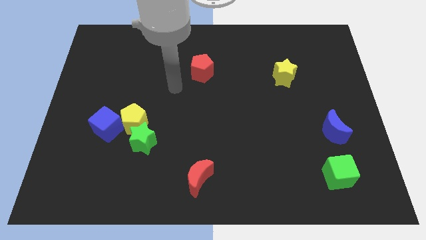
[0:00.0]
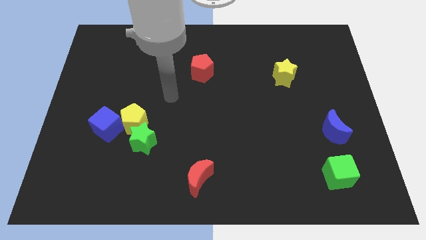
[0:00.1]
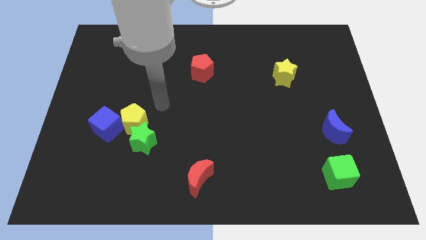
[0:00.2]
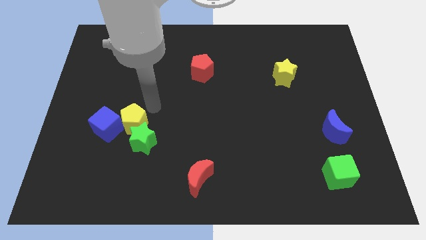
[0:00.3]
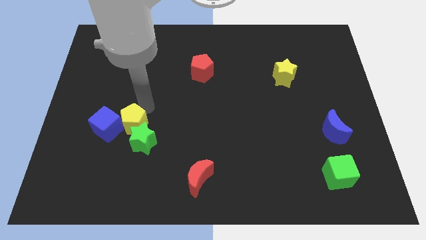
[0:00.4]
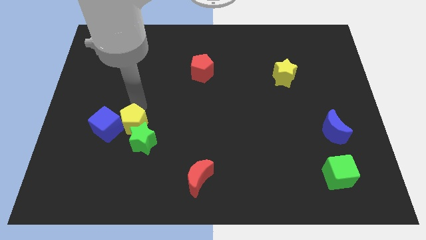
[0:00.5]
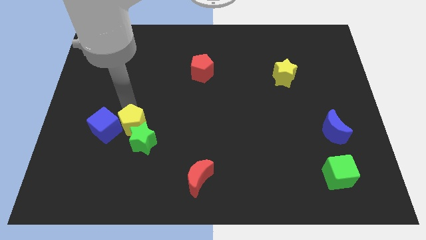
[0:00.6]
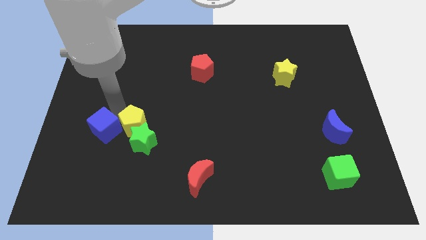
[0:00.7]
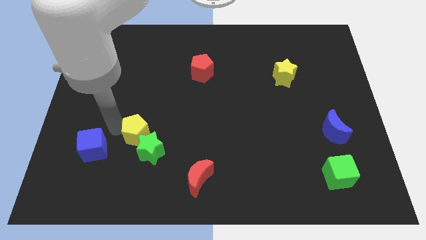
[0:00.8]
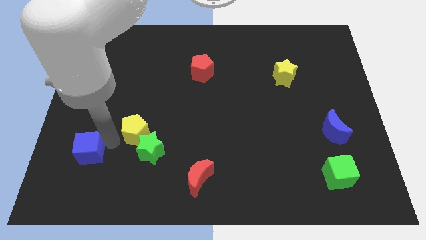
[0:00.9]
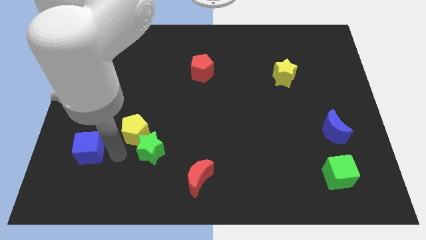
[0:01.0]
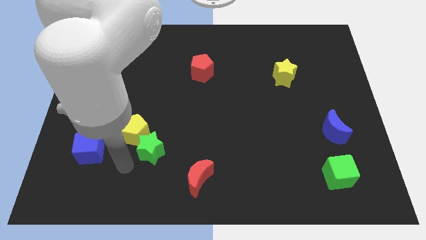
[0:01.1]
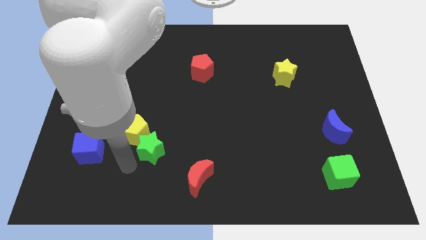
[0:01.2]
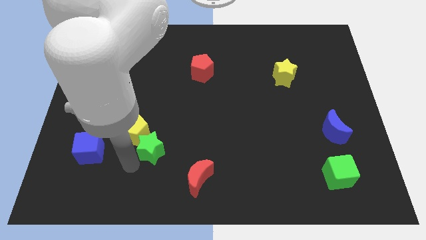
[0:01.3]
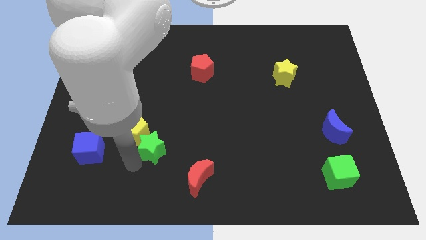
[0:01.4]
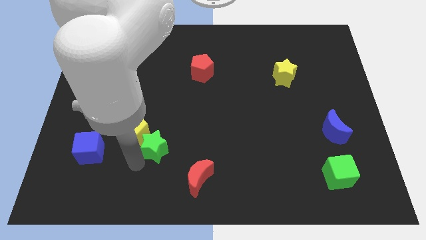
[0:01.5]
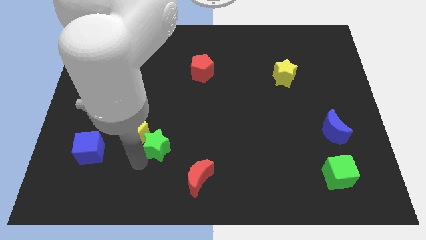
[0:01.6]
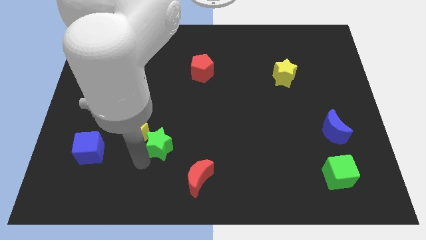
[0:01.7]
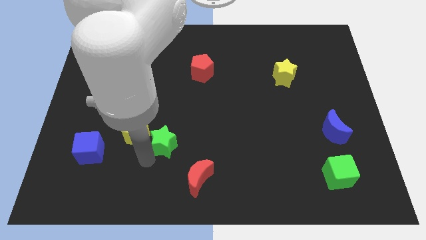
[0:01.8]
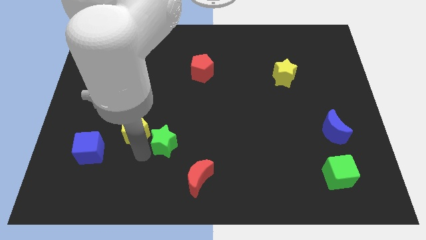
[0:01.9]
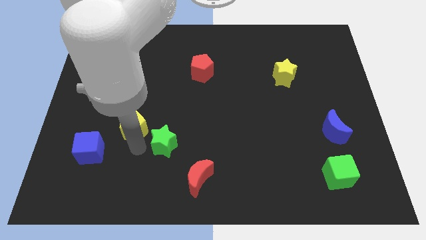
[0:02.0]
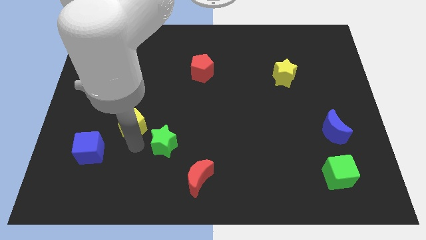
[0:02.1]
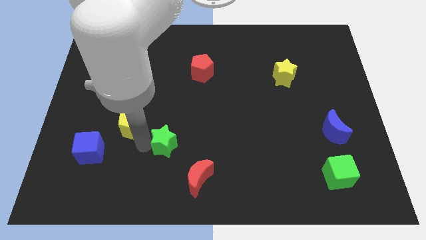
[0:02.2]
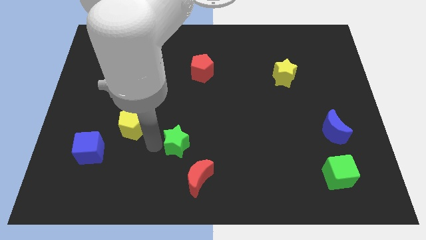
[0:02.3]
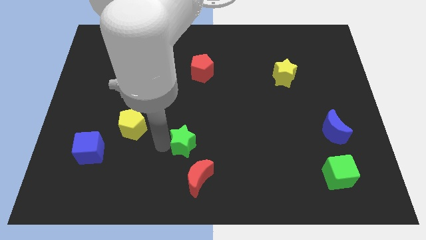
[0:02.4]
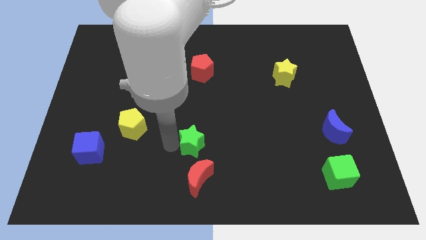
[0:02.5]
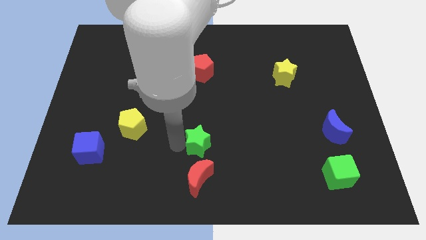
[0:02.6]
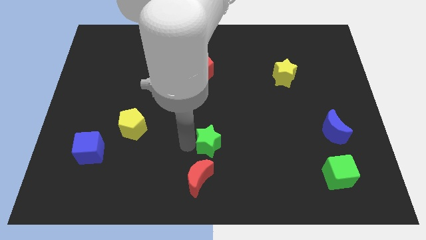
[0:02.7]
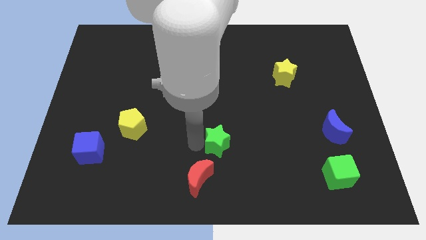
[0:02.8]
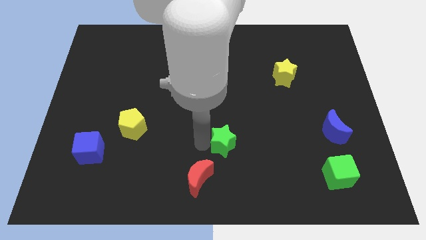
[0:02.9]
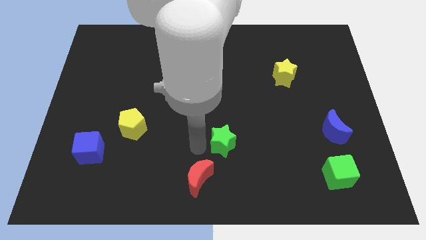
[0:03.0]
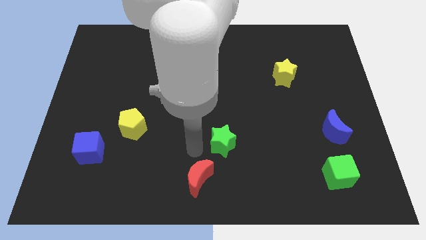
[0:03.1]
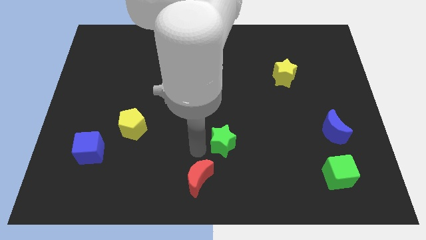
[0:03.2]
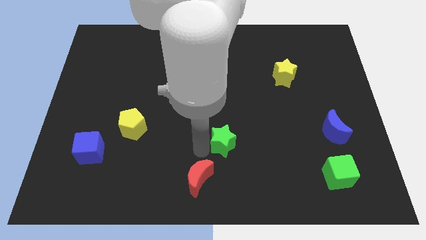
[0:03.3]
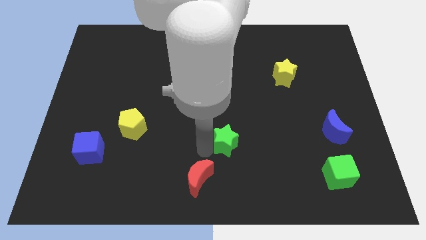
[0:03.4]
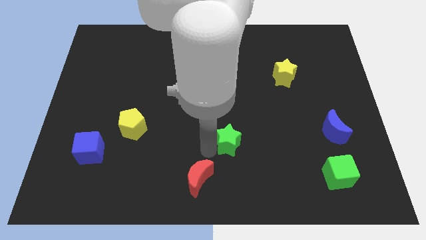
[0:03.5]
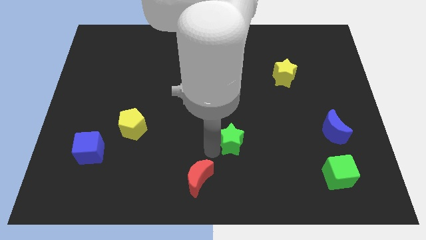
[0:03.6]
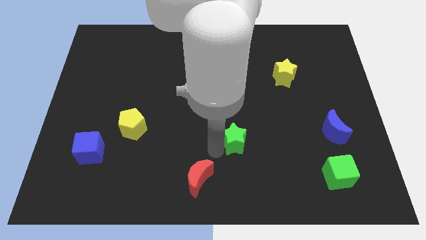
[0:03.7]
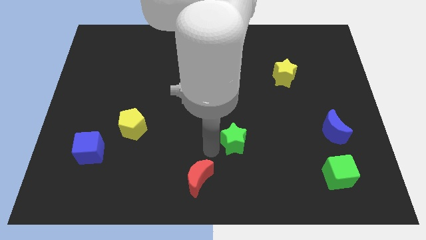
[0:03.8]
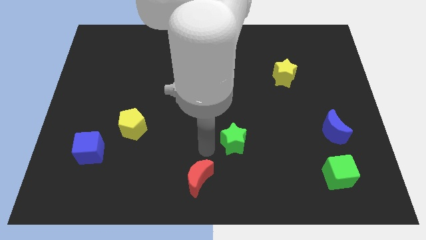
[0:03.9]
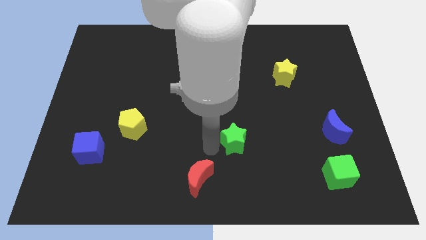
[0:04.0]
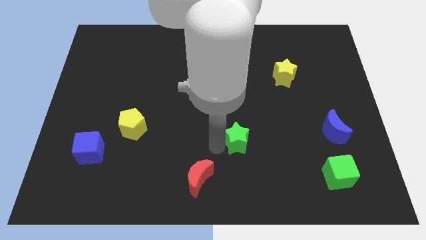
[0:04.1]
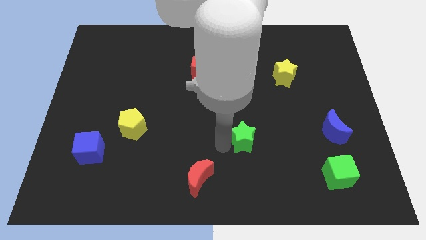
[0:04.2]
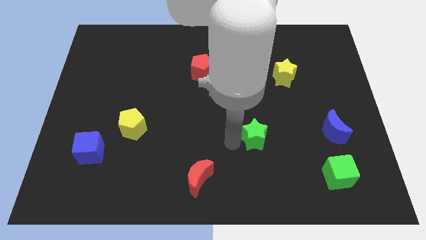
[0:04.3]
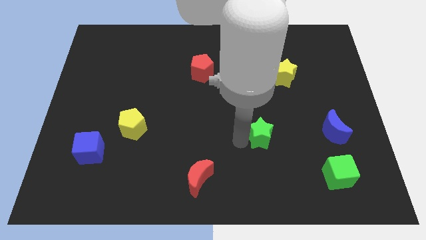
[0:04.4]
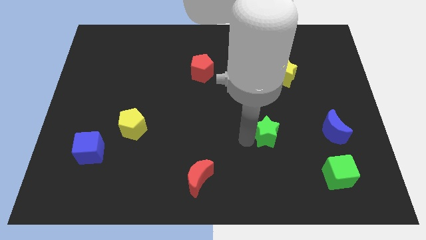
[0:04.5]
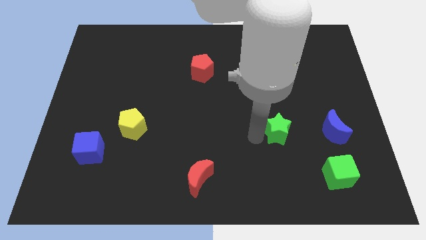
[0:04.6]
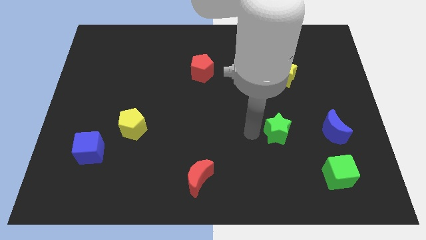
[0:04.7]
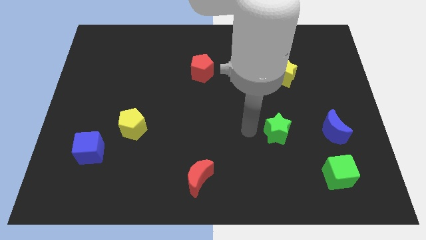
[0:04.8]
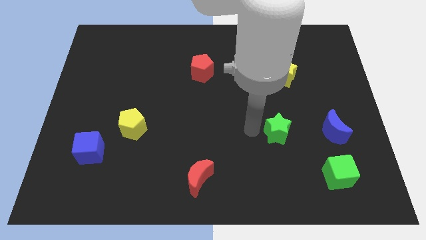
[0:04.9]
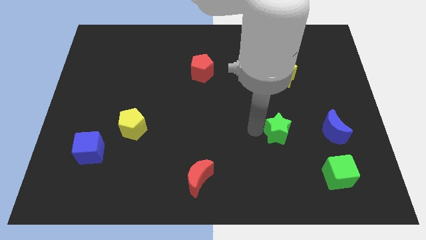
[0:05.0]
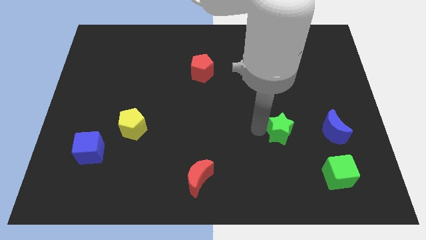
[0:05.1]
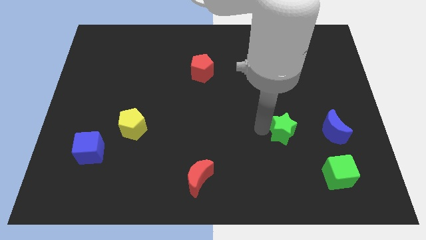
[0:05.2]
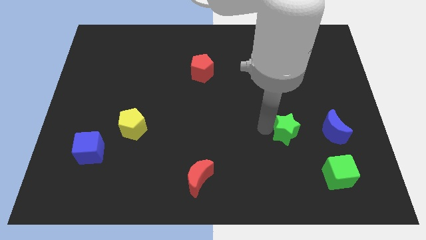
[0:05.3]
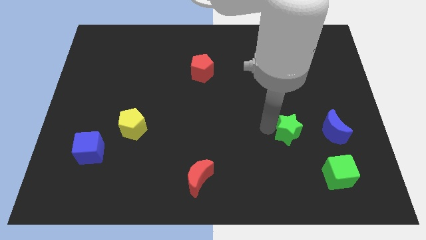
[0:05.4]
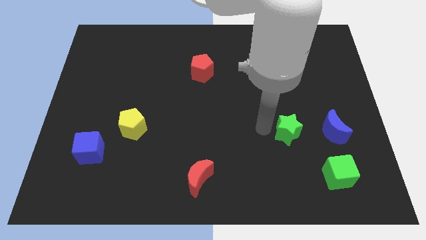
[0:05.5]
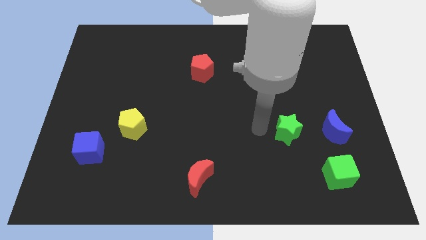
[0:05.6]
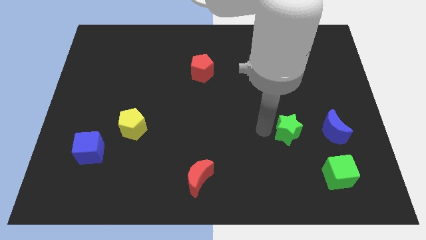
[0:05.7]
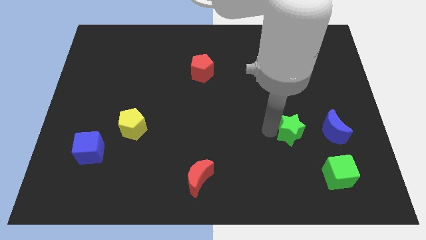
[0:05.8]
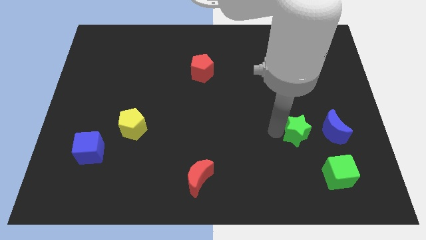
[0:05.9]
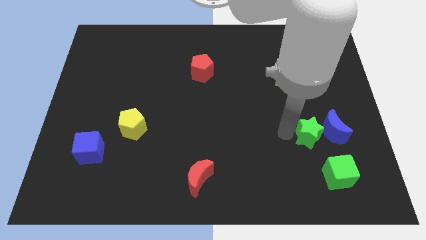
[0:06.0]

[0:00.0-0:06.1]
slide the green star close to the blue moon
